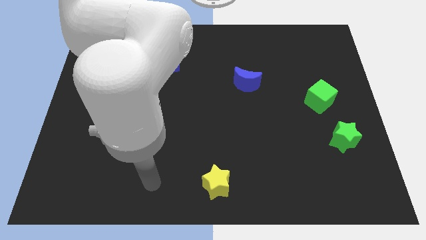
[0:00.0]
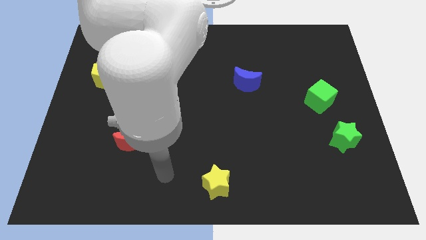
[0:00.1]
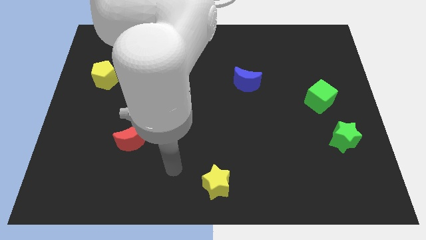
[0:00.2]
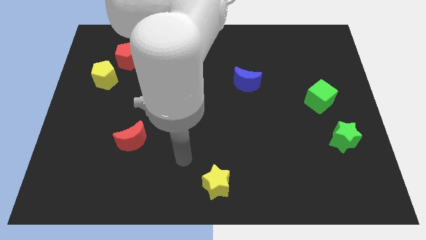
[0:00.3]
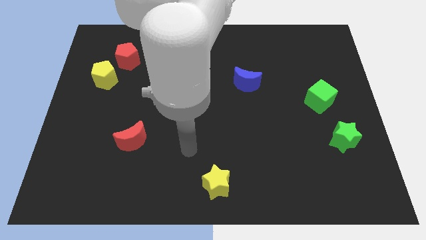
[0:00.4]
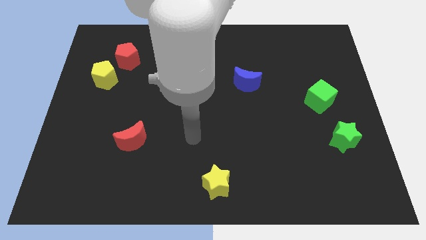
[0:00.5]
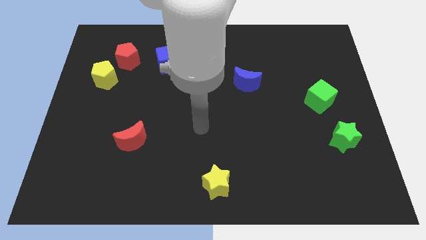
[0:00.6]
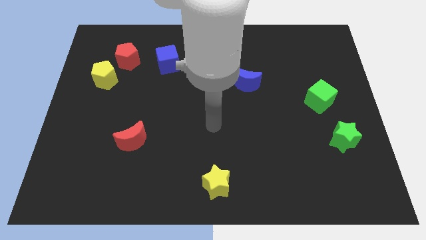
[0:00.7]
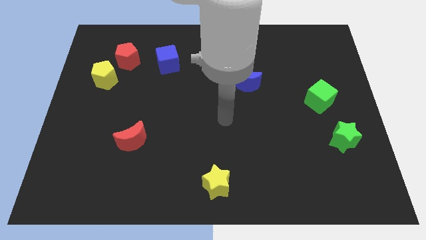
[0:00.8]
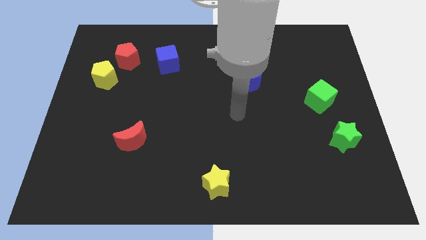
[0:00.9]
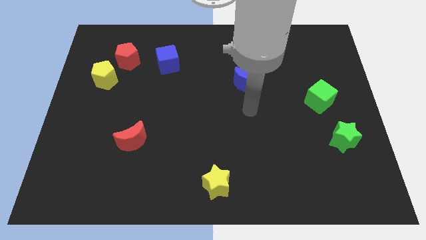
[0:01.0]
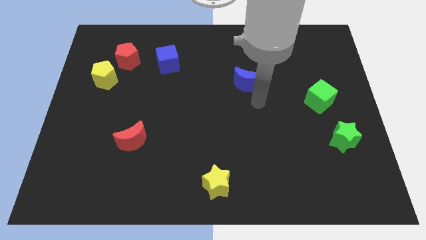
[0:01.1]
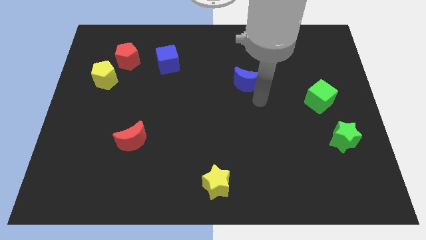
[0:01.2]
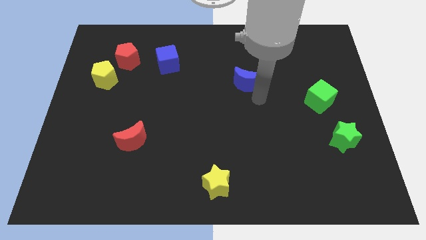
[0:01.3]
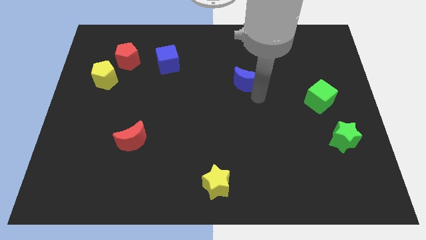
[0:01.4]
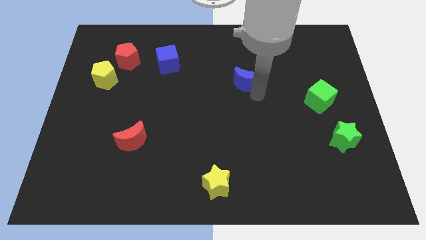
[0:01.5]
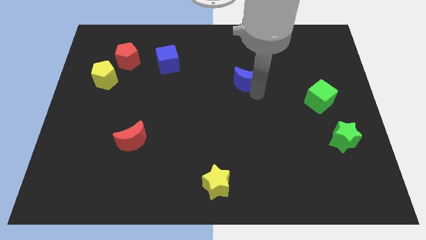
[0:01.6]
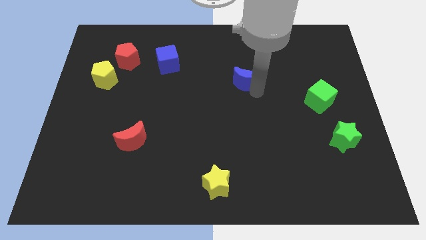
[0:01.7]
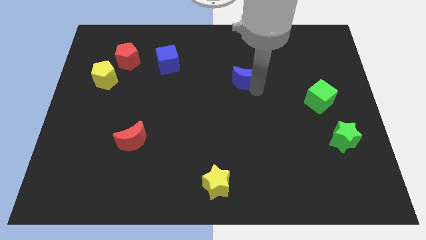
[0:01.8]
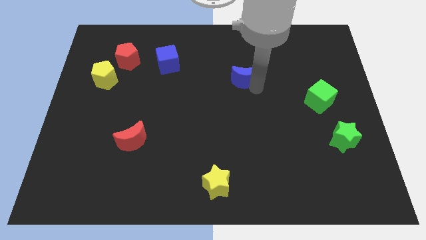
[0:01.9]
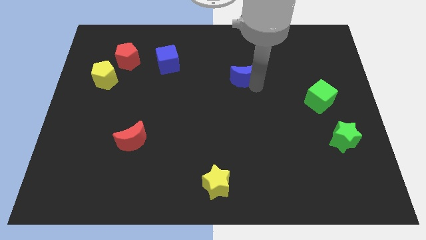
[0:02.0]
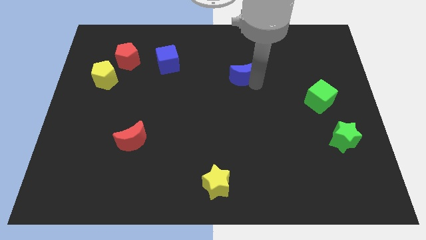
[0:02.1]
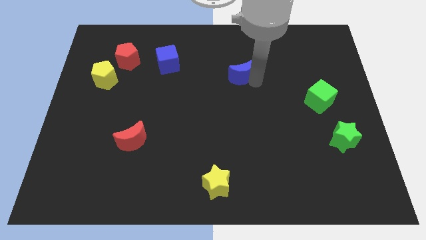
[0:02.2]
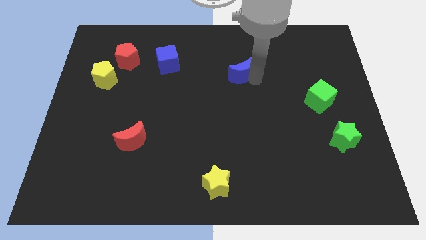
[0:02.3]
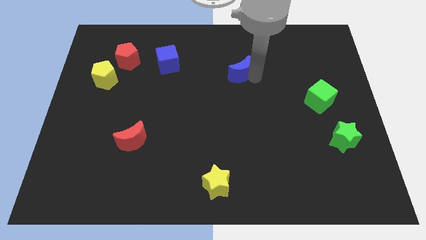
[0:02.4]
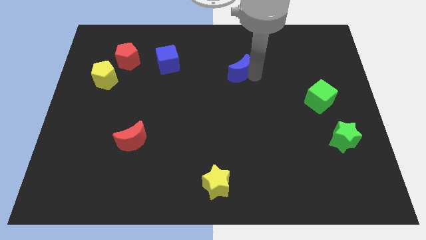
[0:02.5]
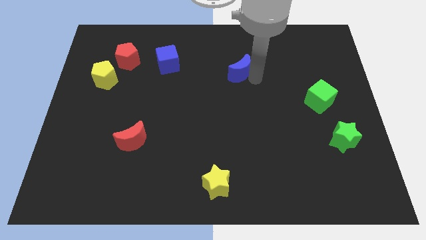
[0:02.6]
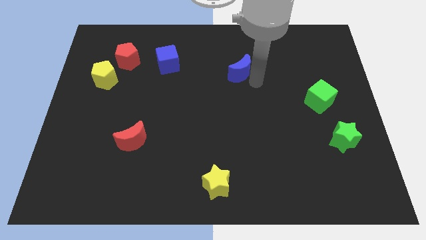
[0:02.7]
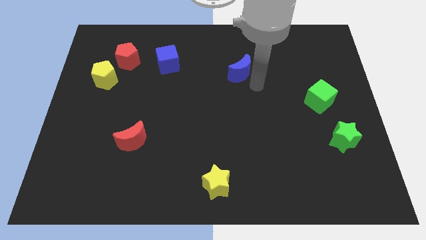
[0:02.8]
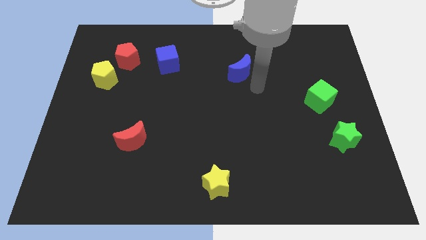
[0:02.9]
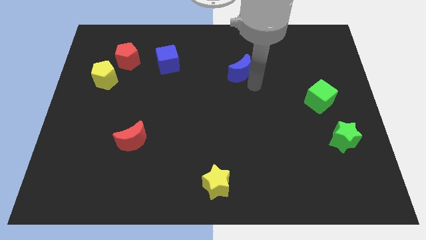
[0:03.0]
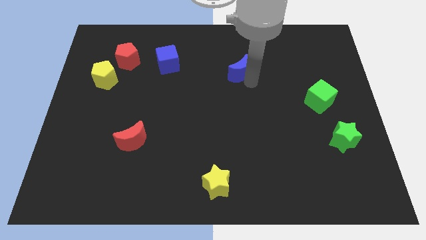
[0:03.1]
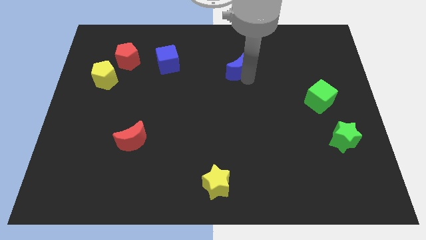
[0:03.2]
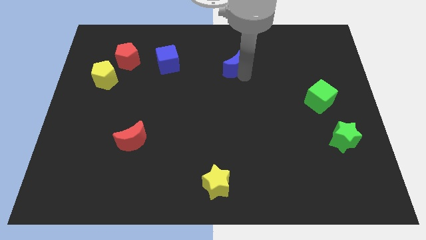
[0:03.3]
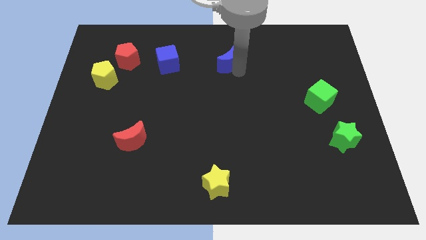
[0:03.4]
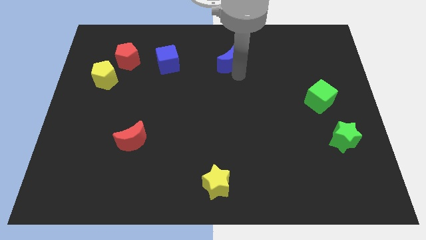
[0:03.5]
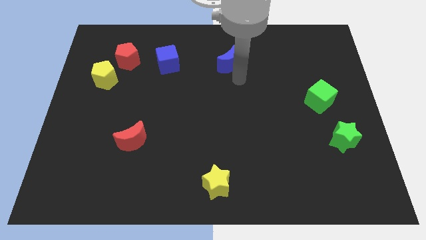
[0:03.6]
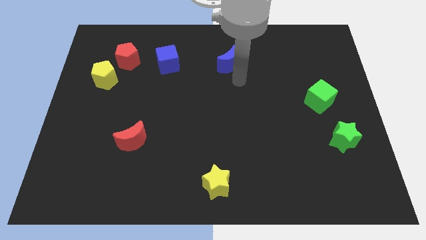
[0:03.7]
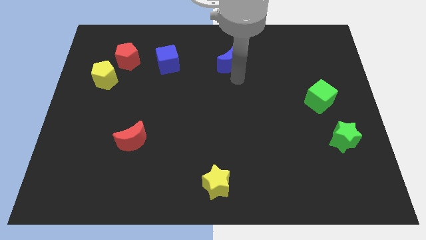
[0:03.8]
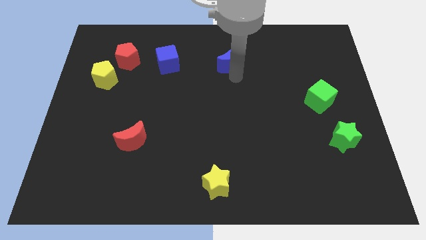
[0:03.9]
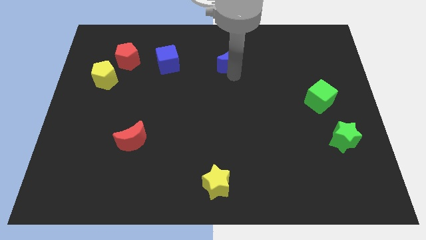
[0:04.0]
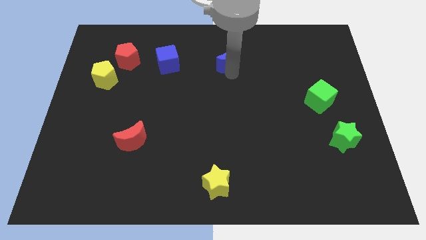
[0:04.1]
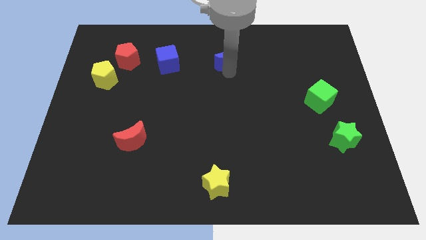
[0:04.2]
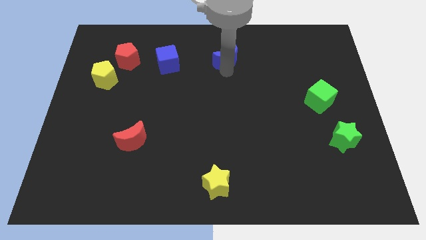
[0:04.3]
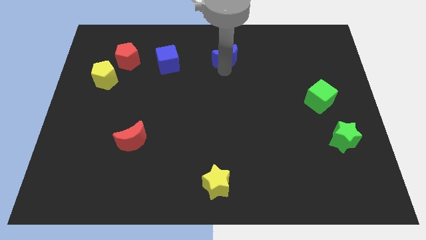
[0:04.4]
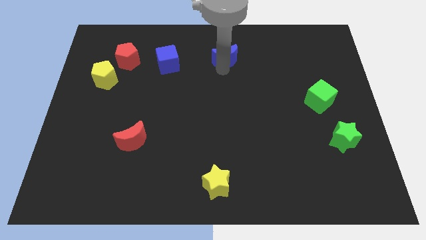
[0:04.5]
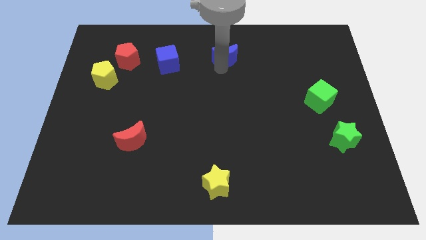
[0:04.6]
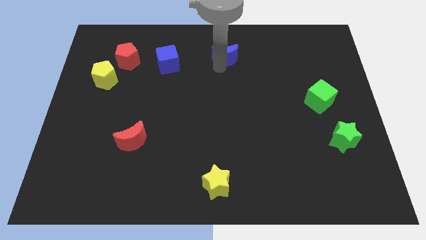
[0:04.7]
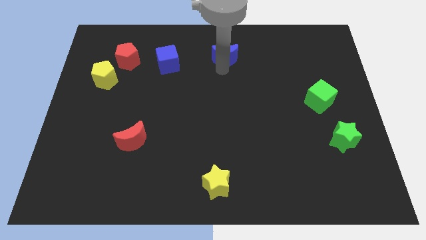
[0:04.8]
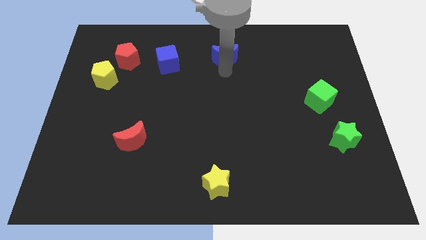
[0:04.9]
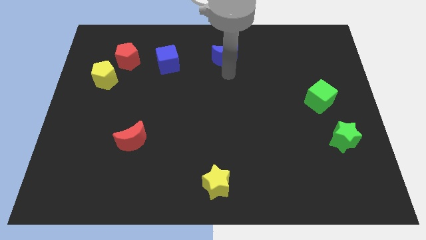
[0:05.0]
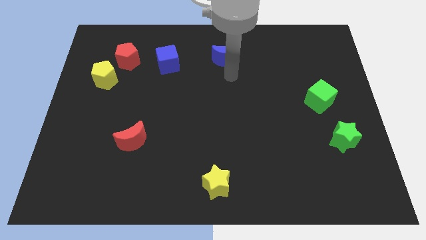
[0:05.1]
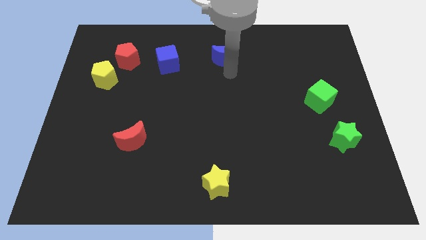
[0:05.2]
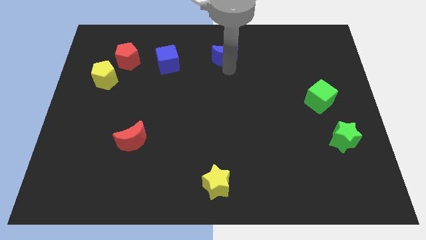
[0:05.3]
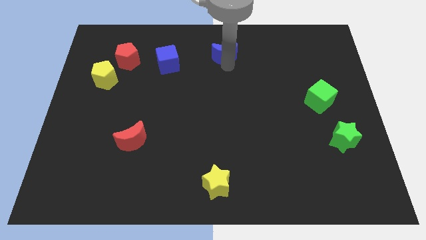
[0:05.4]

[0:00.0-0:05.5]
move the blue moon to the towards your base
